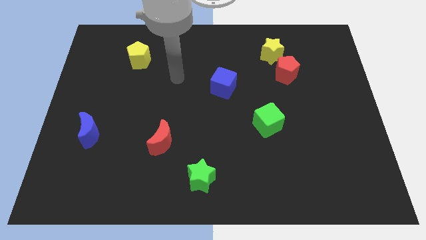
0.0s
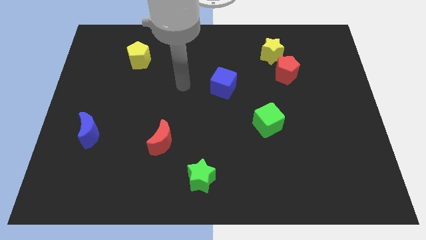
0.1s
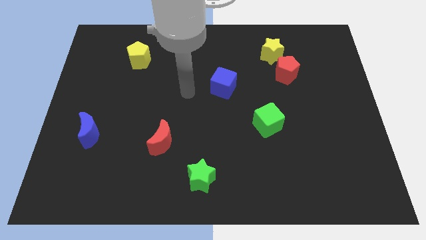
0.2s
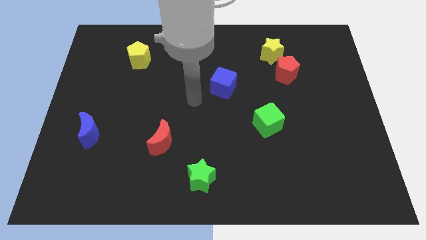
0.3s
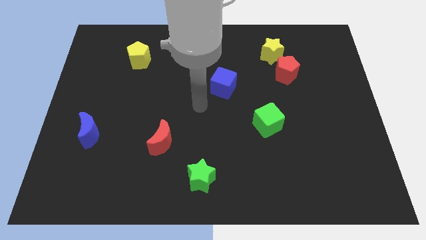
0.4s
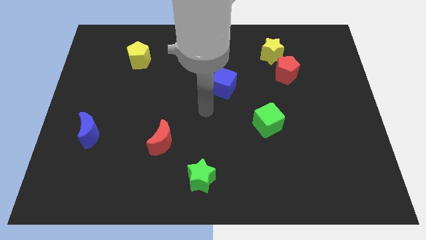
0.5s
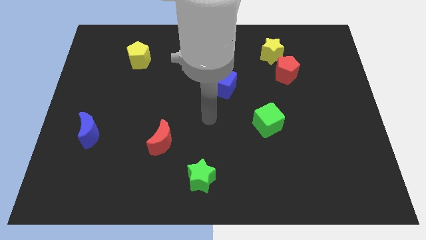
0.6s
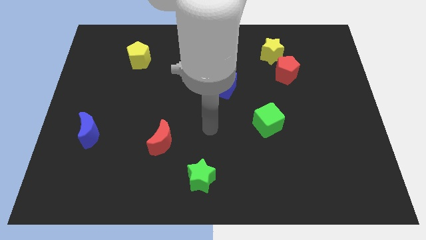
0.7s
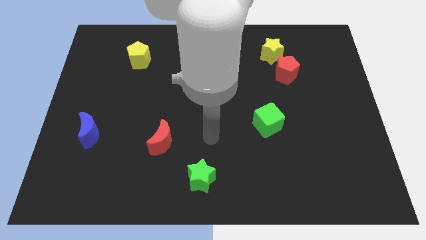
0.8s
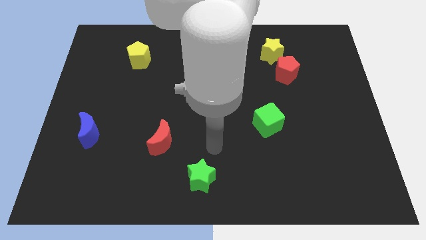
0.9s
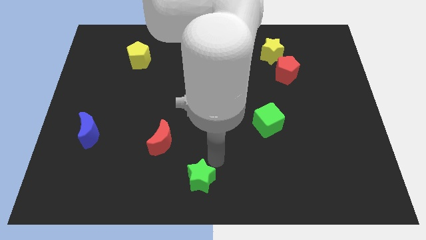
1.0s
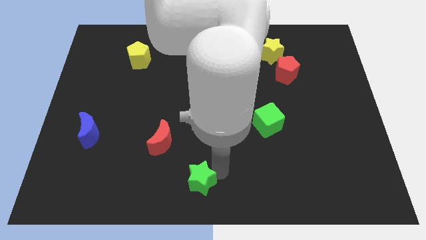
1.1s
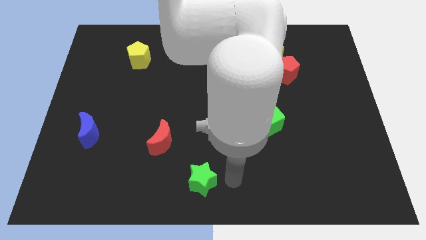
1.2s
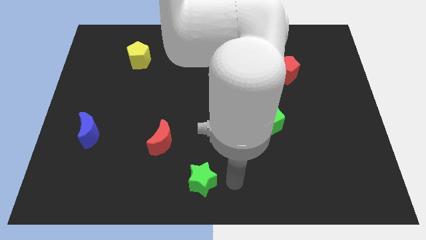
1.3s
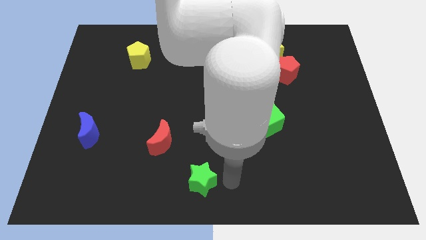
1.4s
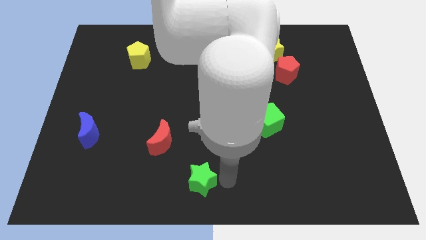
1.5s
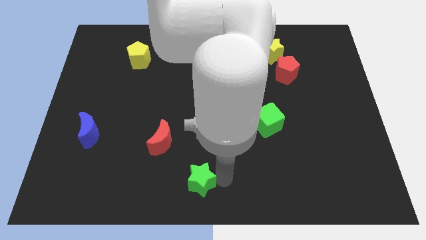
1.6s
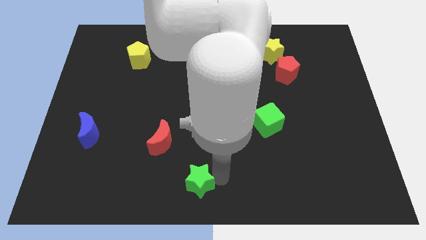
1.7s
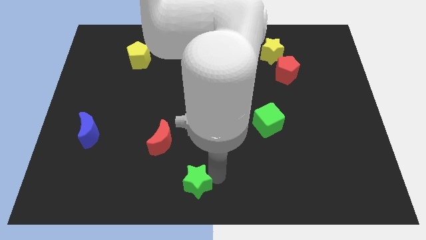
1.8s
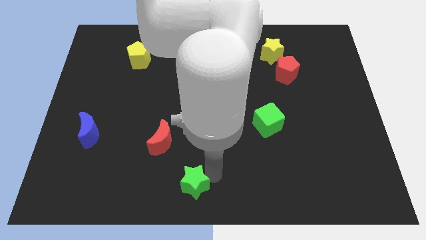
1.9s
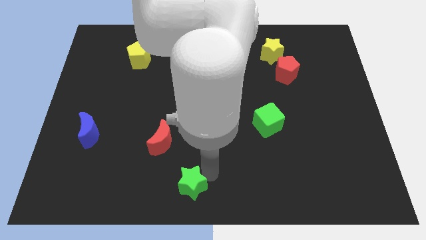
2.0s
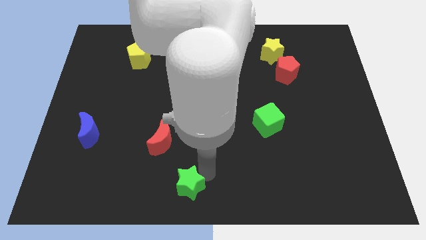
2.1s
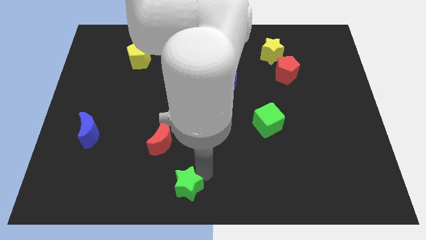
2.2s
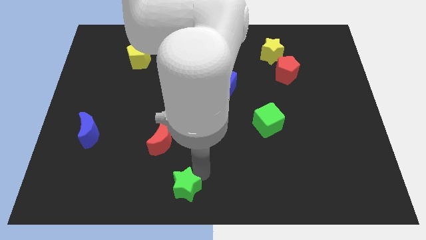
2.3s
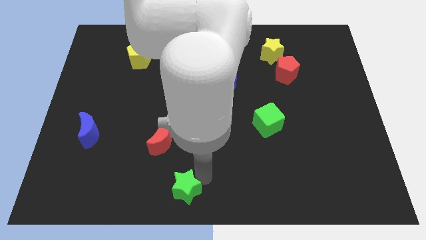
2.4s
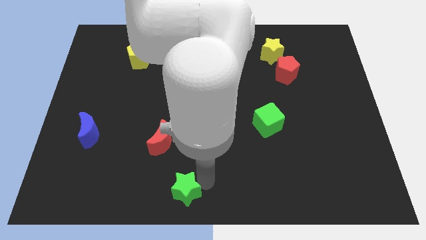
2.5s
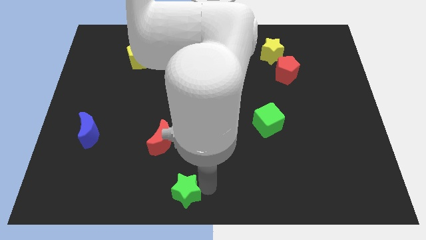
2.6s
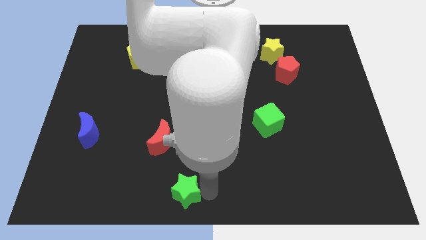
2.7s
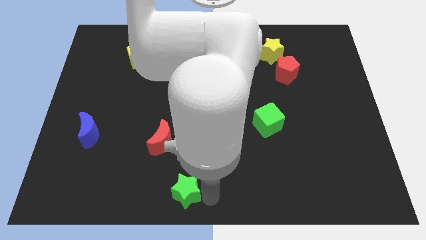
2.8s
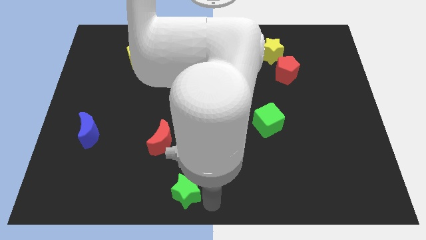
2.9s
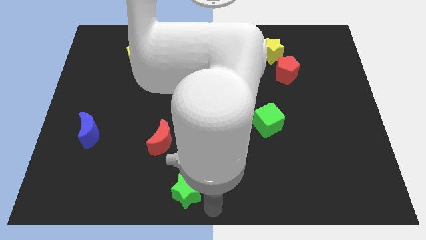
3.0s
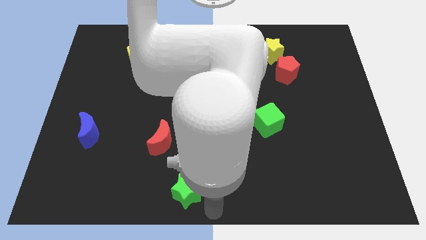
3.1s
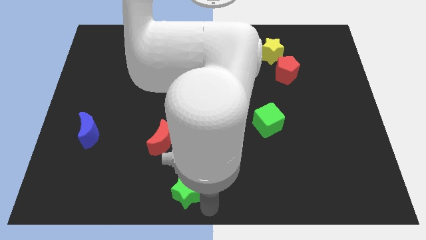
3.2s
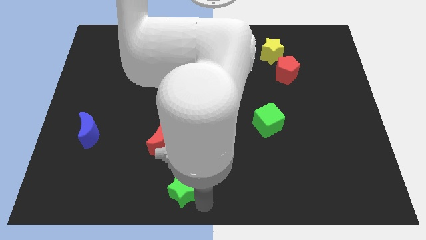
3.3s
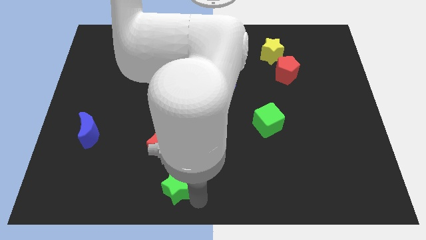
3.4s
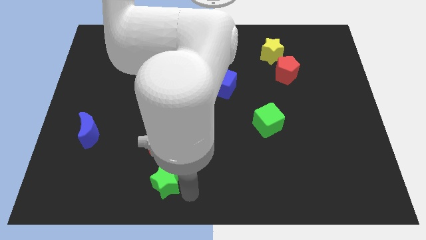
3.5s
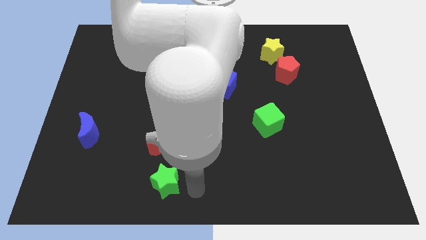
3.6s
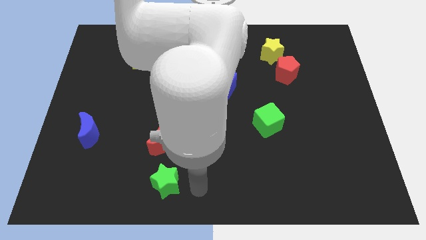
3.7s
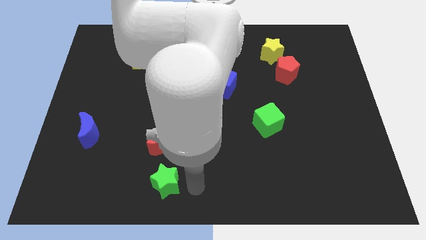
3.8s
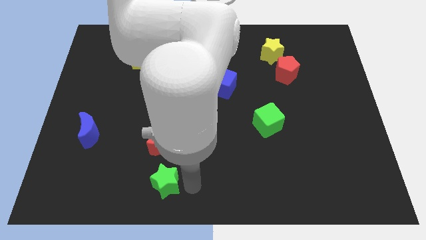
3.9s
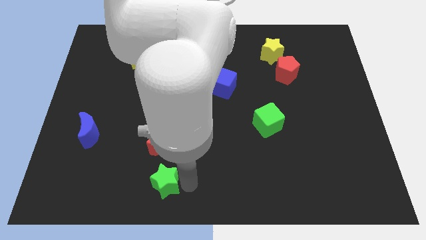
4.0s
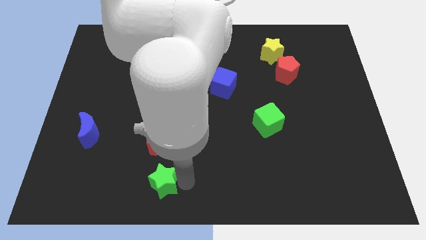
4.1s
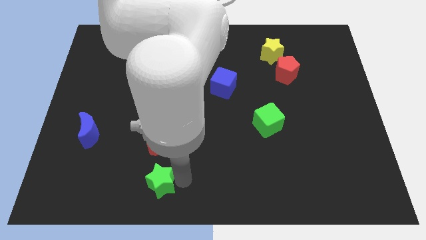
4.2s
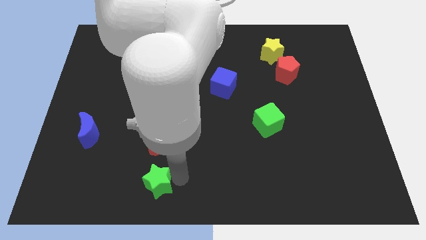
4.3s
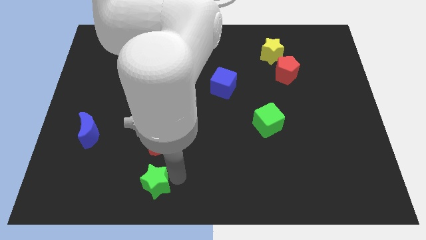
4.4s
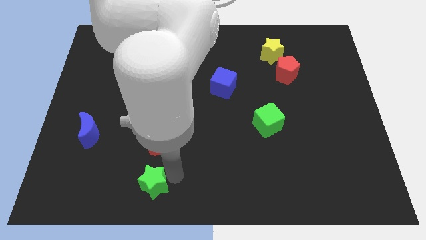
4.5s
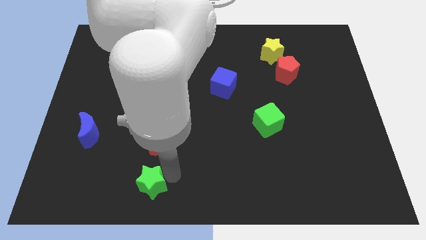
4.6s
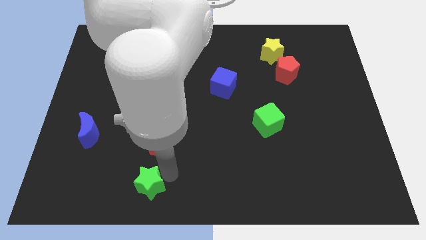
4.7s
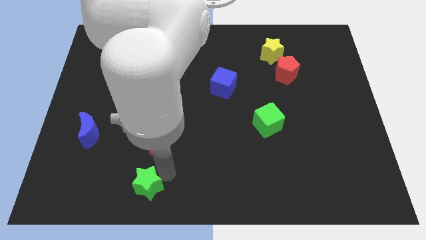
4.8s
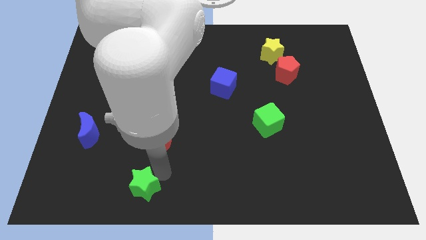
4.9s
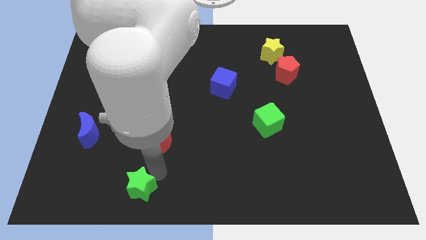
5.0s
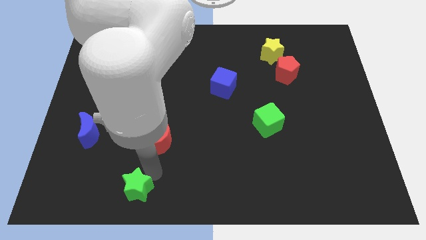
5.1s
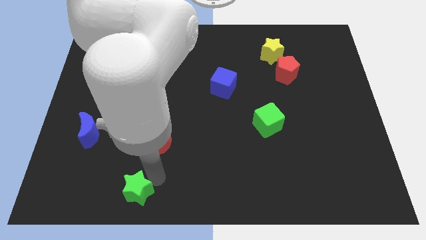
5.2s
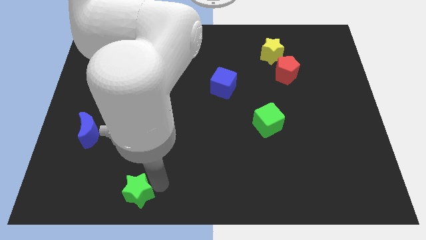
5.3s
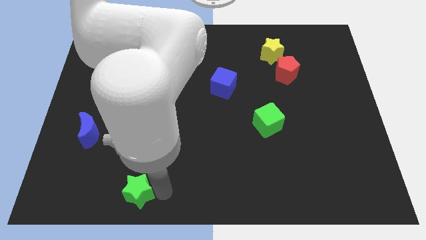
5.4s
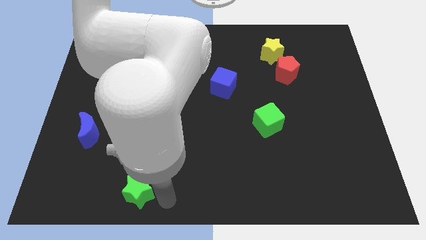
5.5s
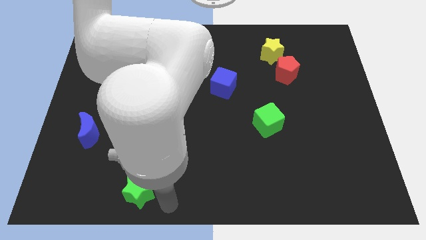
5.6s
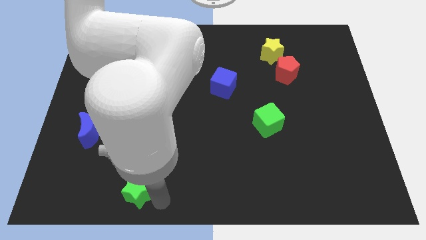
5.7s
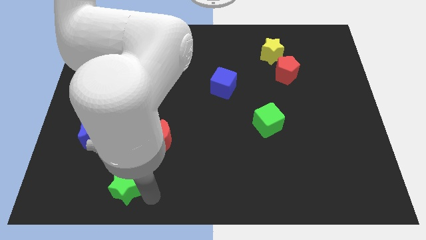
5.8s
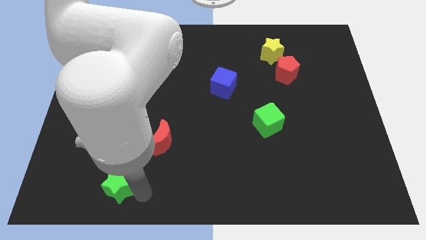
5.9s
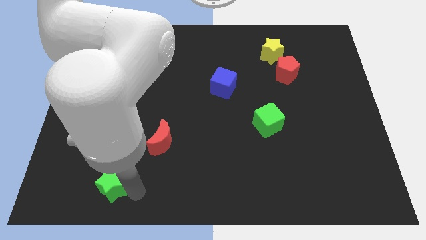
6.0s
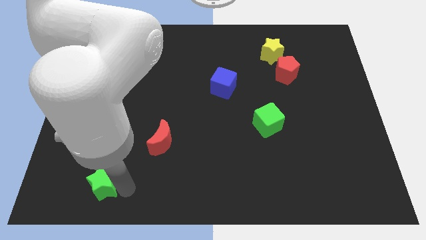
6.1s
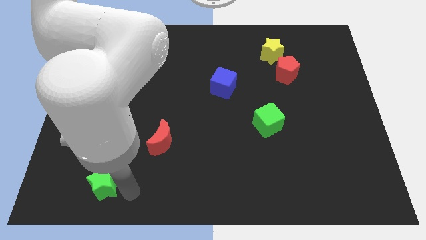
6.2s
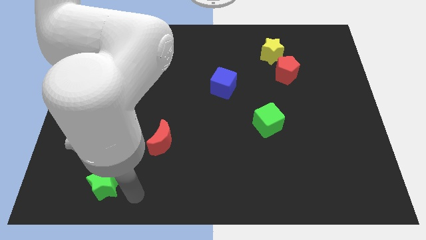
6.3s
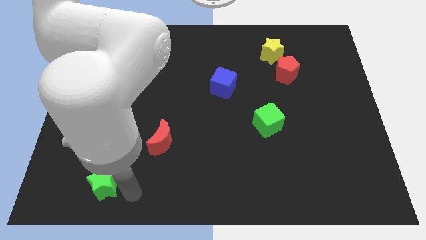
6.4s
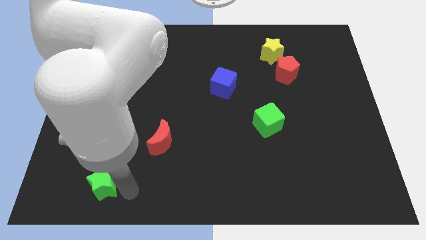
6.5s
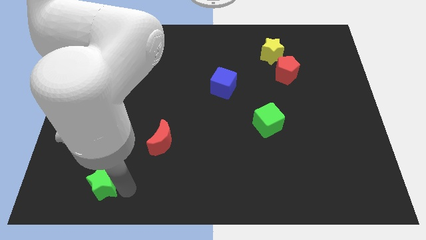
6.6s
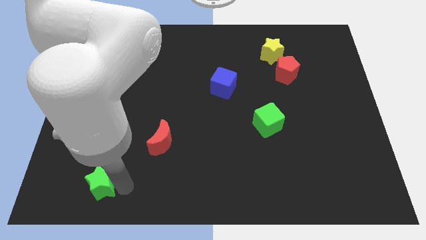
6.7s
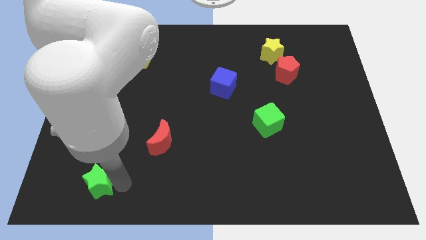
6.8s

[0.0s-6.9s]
push the green star to the bottom of the blue moon

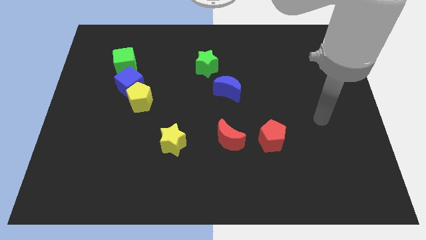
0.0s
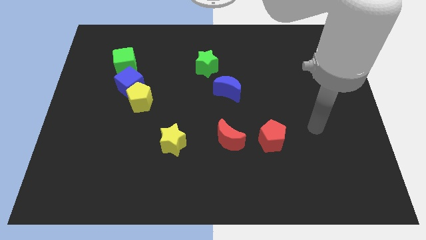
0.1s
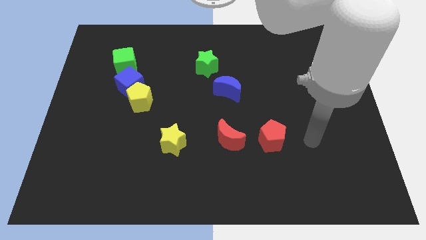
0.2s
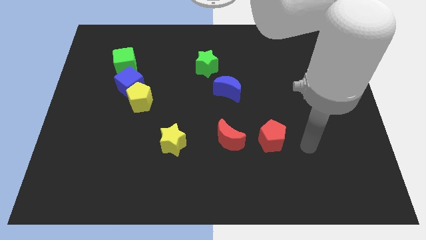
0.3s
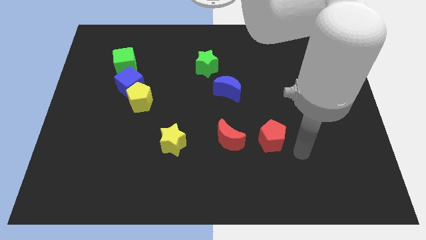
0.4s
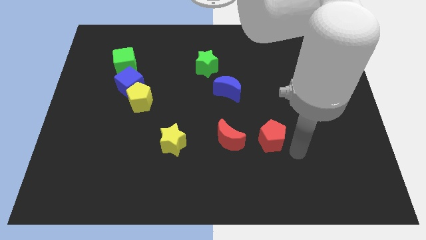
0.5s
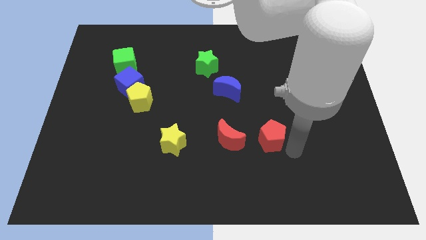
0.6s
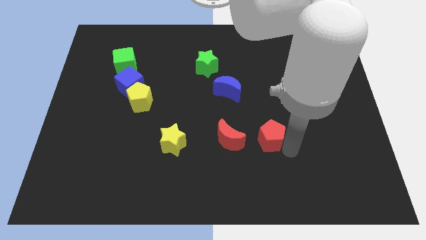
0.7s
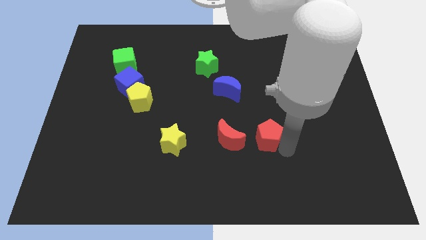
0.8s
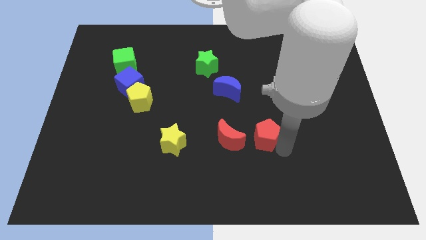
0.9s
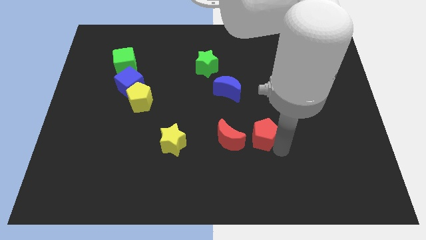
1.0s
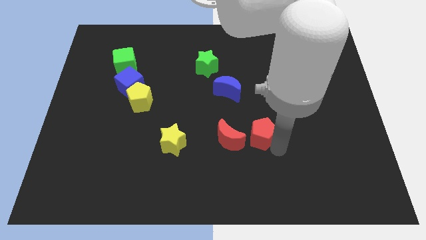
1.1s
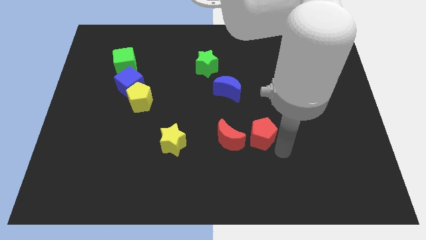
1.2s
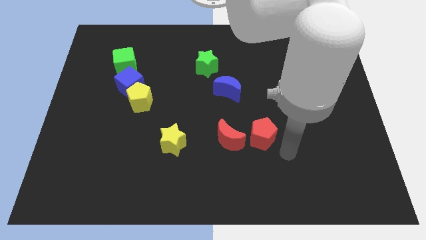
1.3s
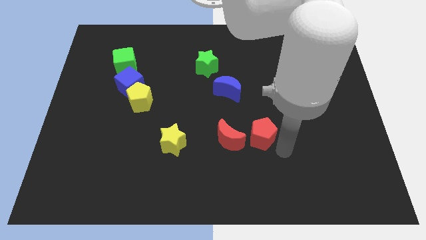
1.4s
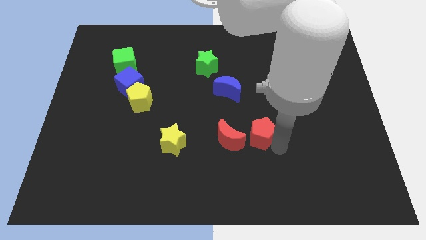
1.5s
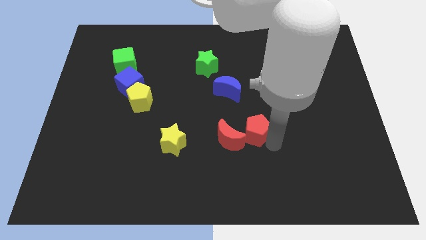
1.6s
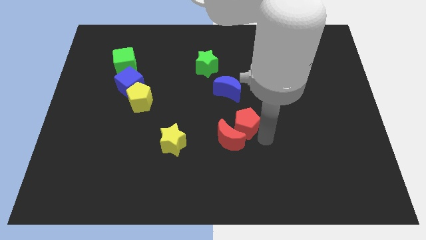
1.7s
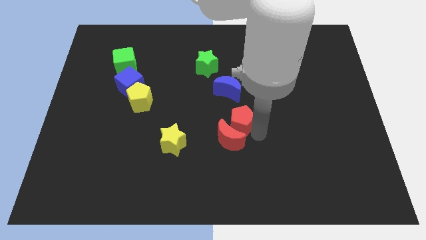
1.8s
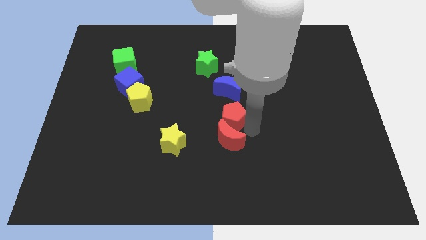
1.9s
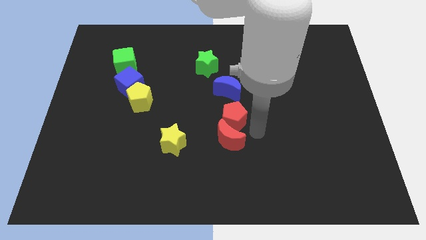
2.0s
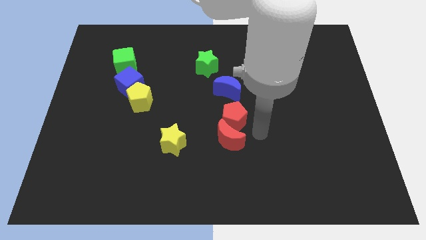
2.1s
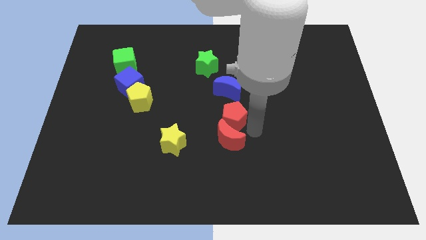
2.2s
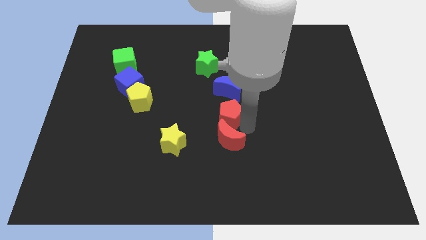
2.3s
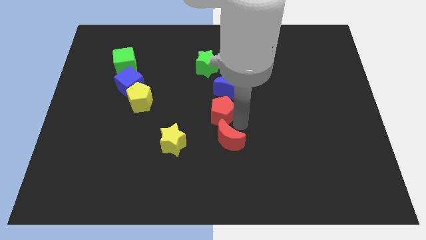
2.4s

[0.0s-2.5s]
move the red pentagon to the bottom left of the blue moon
